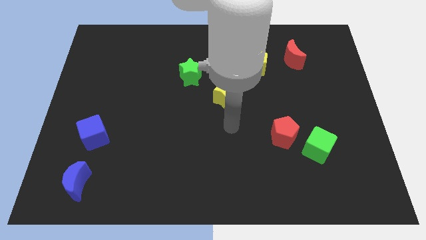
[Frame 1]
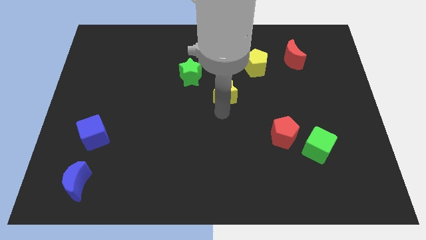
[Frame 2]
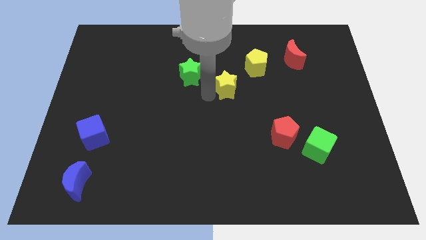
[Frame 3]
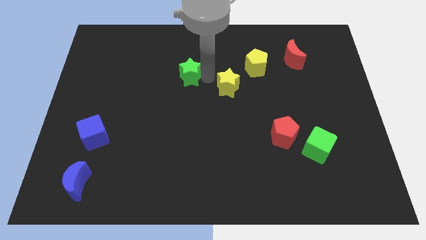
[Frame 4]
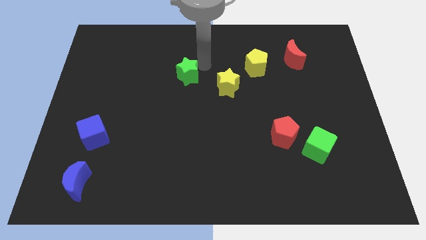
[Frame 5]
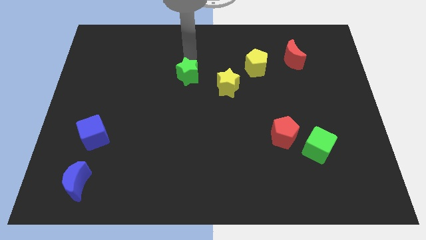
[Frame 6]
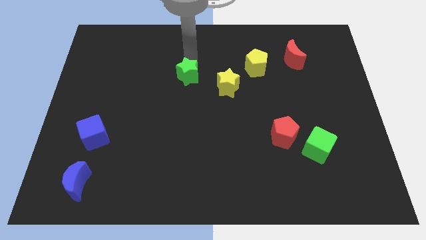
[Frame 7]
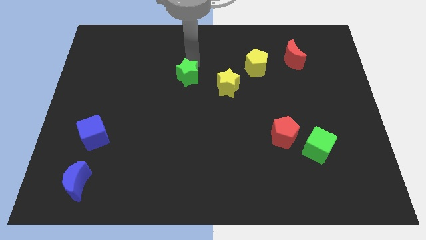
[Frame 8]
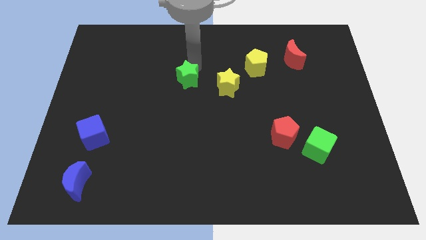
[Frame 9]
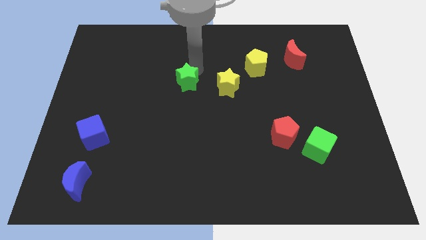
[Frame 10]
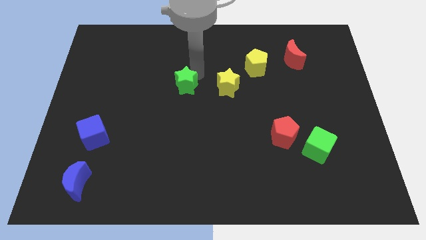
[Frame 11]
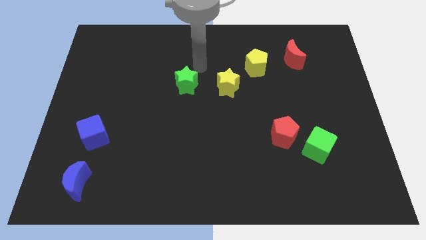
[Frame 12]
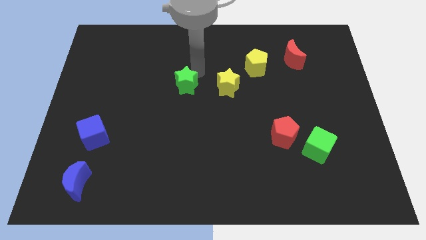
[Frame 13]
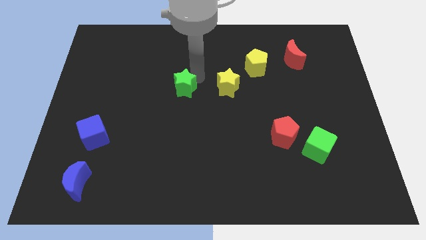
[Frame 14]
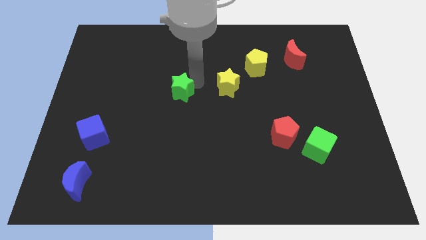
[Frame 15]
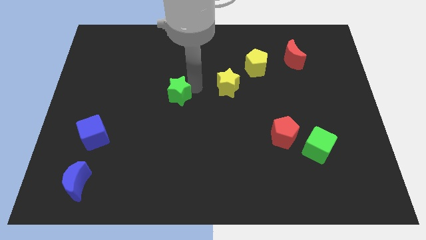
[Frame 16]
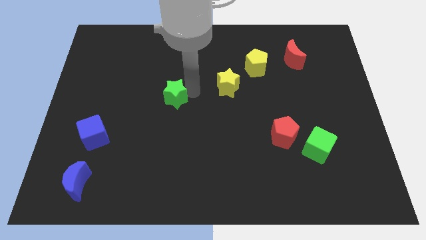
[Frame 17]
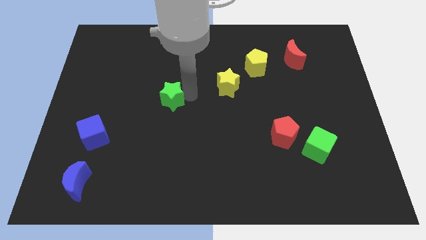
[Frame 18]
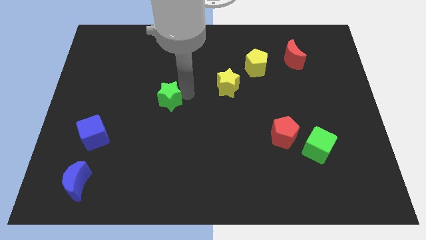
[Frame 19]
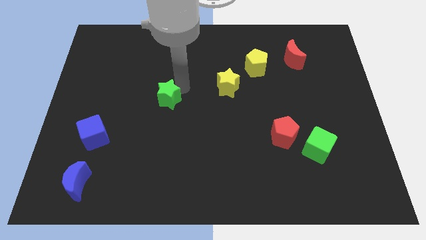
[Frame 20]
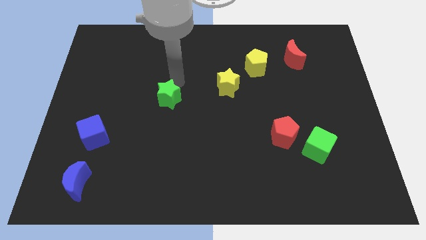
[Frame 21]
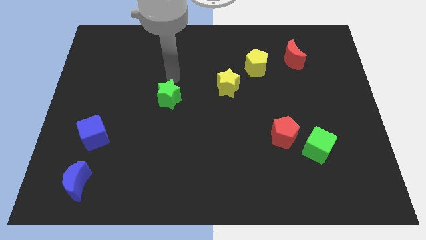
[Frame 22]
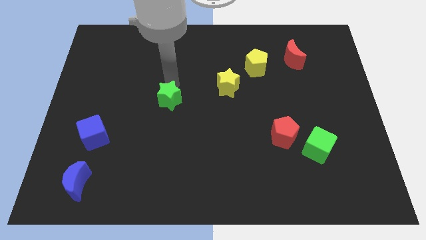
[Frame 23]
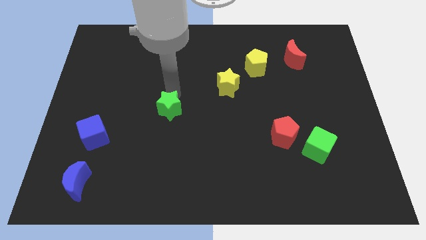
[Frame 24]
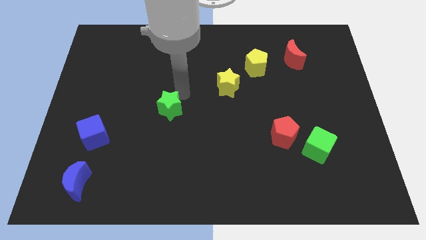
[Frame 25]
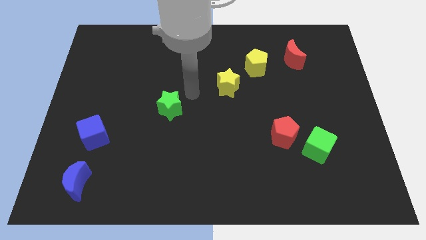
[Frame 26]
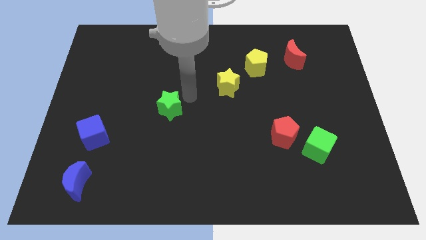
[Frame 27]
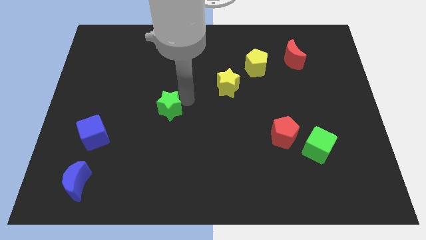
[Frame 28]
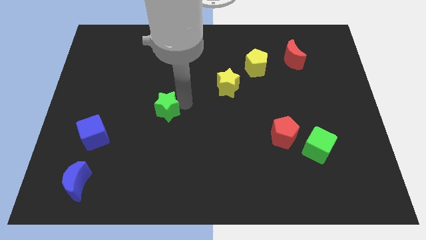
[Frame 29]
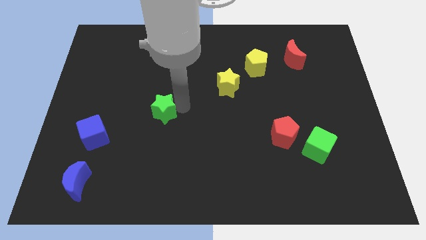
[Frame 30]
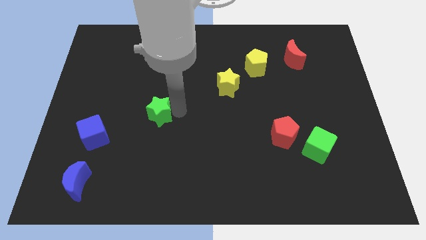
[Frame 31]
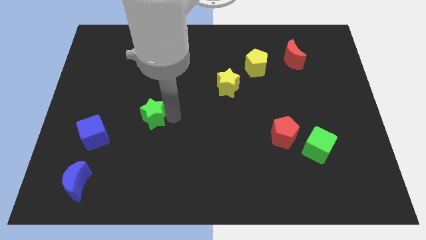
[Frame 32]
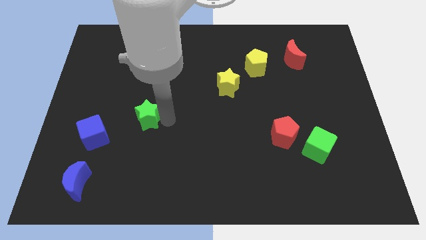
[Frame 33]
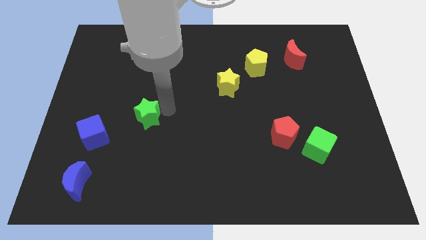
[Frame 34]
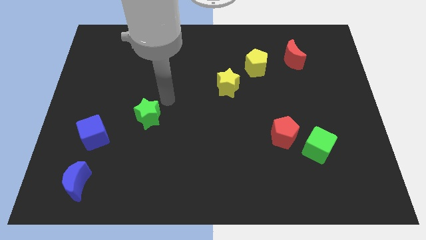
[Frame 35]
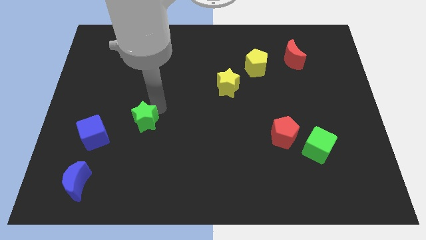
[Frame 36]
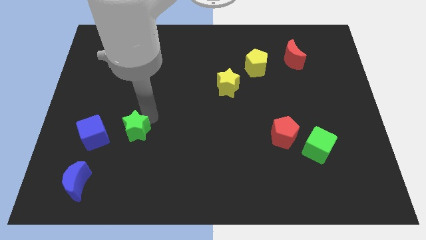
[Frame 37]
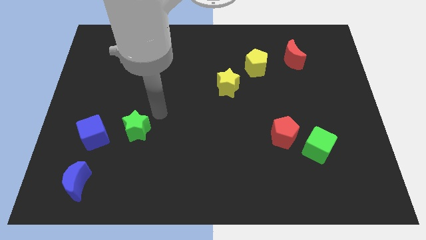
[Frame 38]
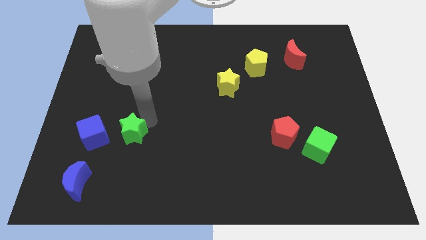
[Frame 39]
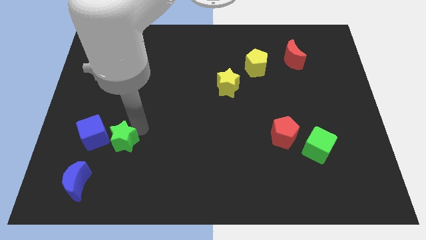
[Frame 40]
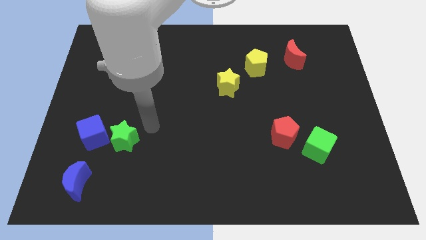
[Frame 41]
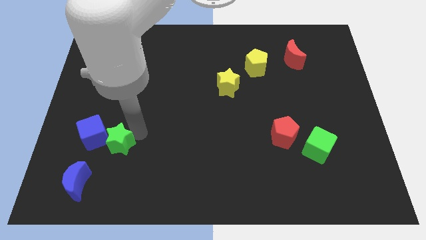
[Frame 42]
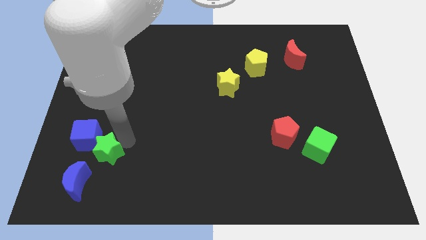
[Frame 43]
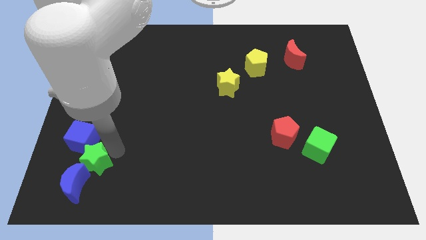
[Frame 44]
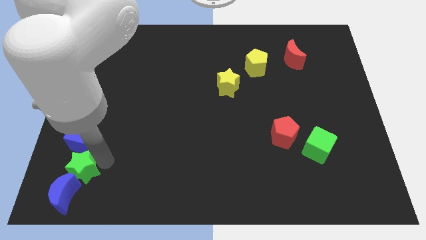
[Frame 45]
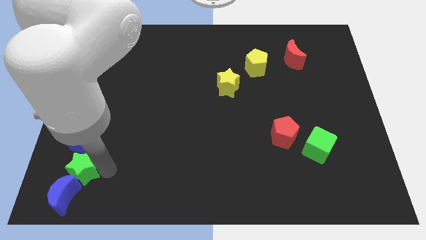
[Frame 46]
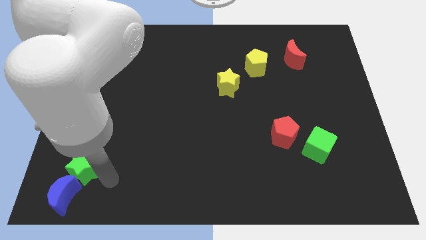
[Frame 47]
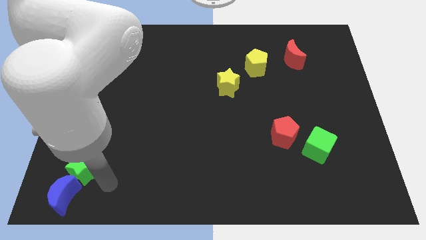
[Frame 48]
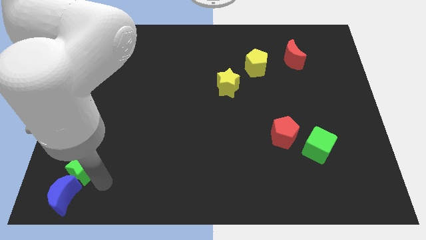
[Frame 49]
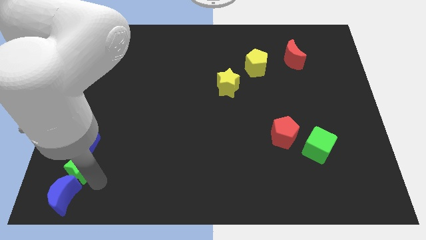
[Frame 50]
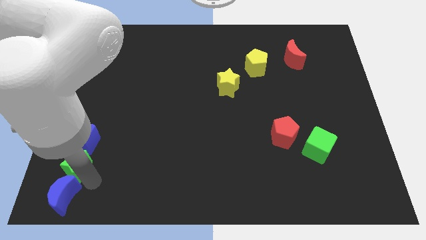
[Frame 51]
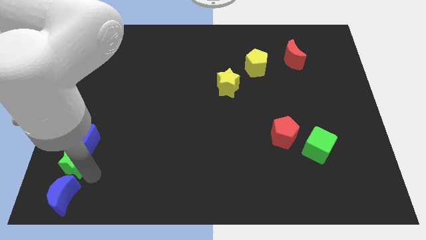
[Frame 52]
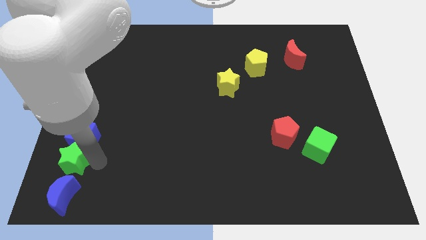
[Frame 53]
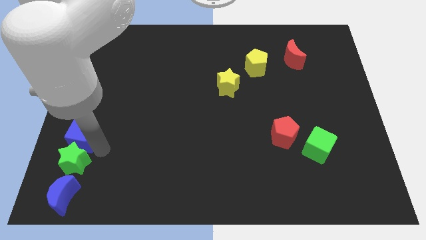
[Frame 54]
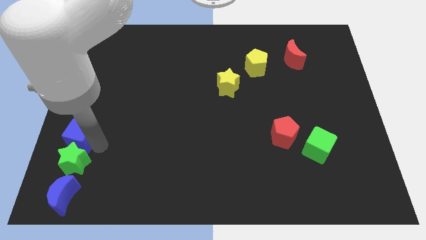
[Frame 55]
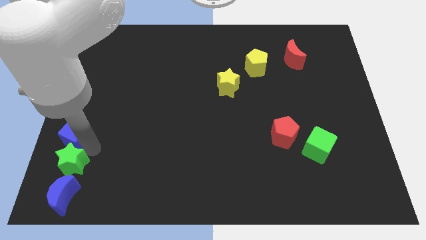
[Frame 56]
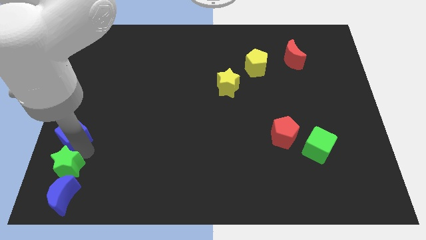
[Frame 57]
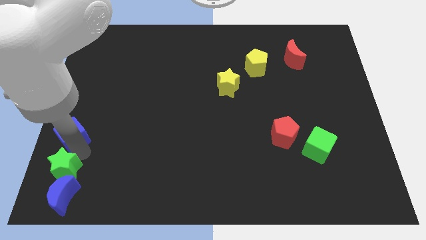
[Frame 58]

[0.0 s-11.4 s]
push the green star to the lower left corner
